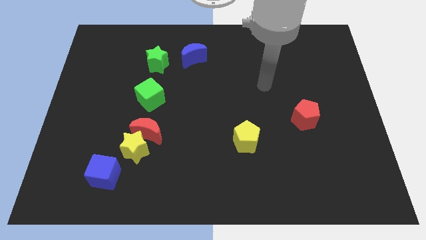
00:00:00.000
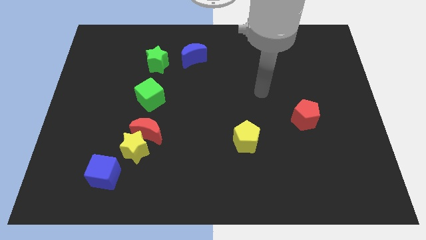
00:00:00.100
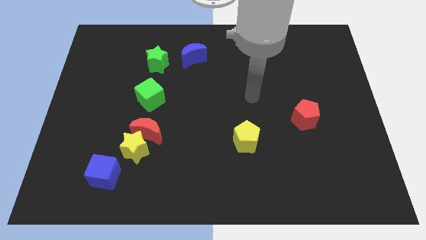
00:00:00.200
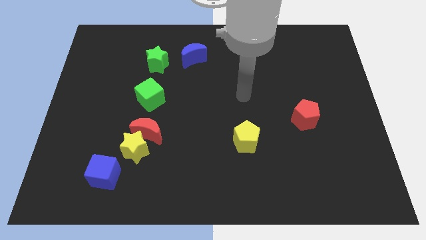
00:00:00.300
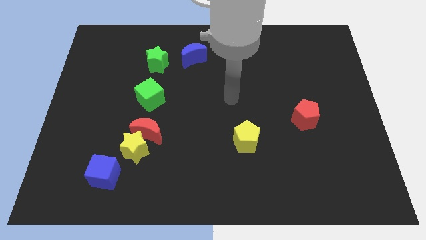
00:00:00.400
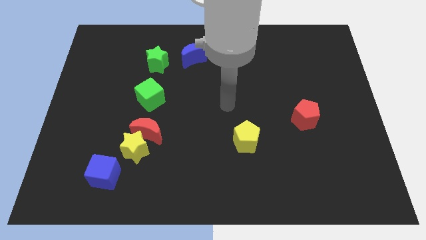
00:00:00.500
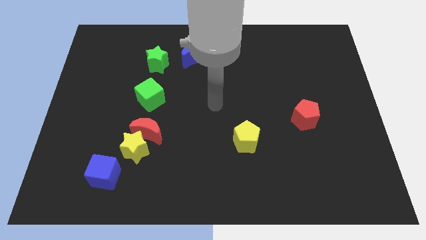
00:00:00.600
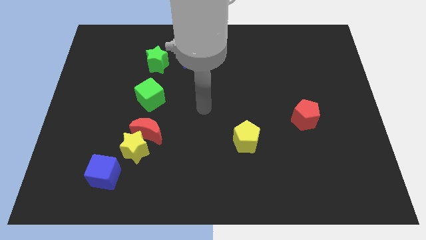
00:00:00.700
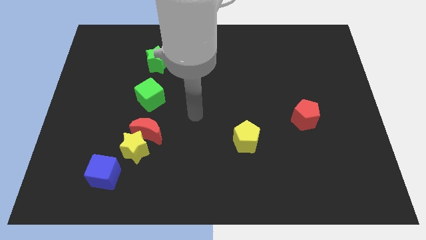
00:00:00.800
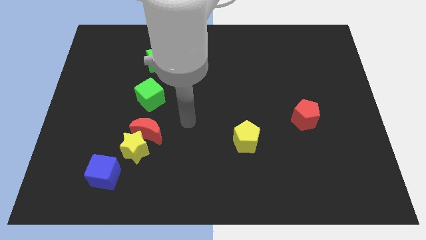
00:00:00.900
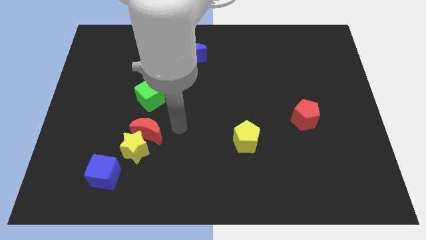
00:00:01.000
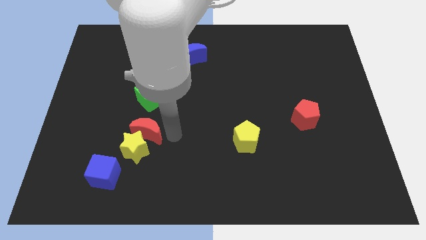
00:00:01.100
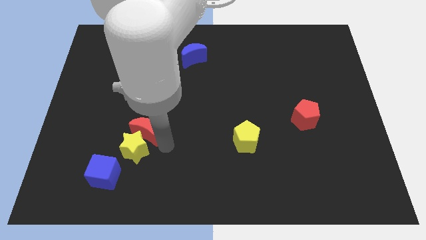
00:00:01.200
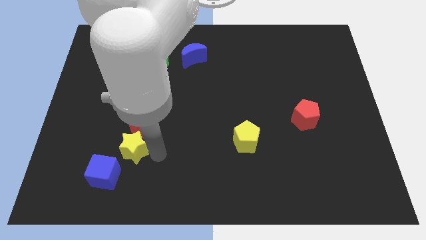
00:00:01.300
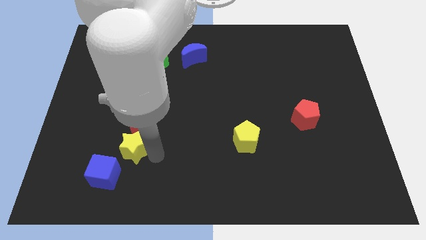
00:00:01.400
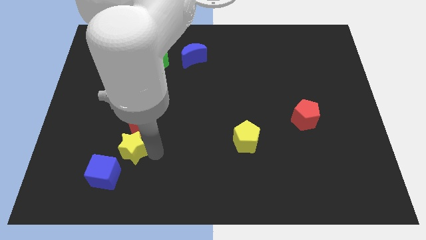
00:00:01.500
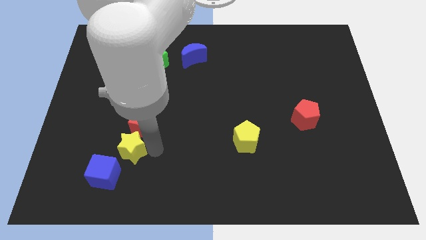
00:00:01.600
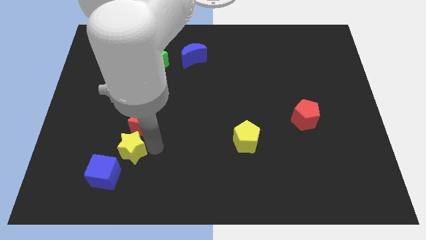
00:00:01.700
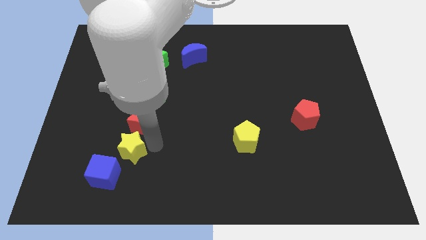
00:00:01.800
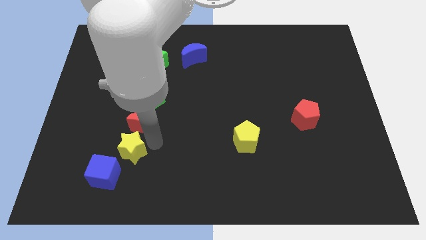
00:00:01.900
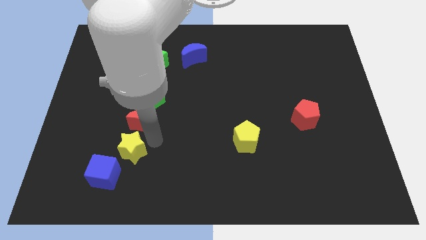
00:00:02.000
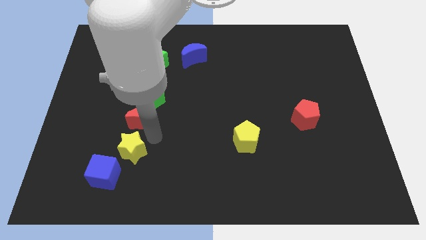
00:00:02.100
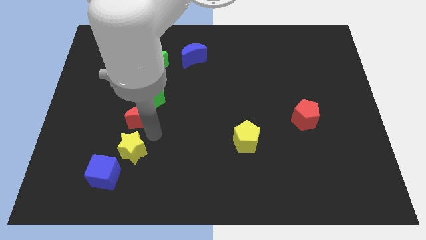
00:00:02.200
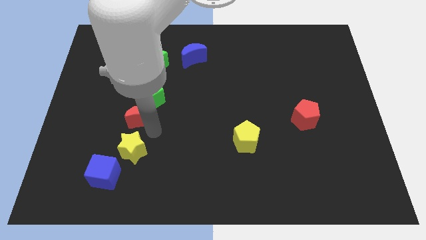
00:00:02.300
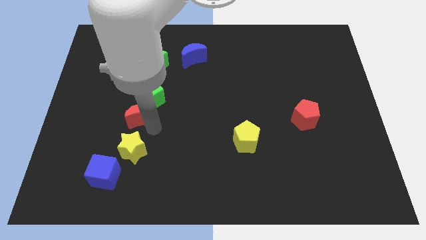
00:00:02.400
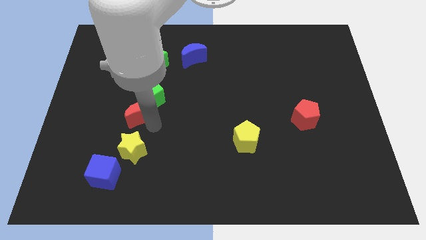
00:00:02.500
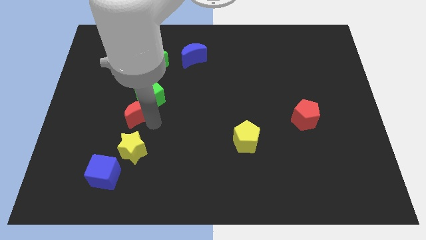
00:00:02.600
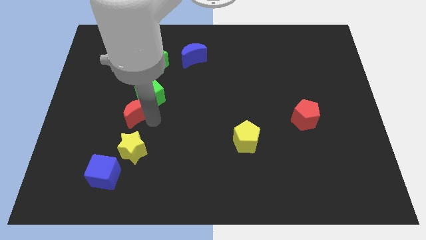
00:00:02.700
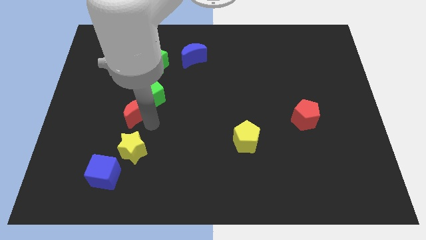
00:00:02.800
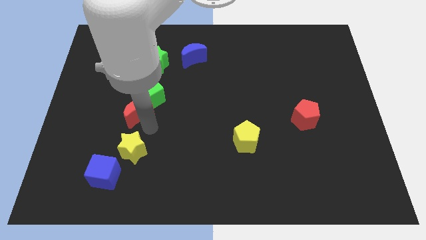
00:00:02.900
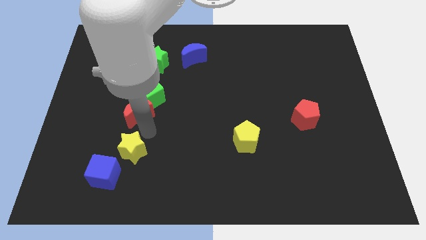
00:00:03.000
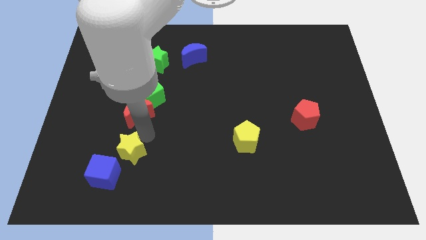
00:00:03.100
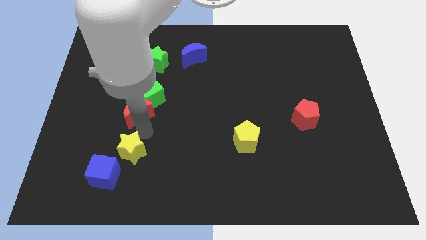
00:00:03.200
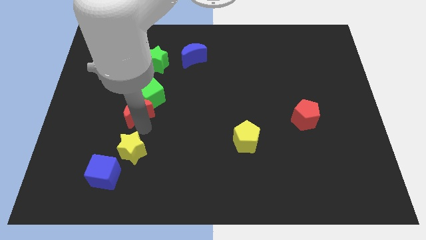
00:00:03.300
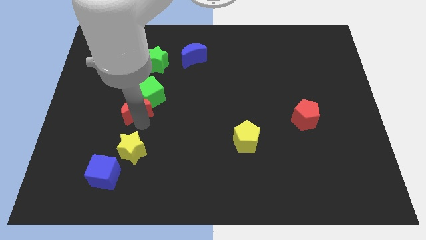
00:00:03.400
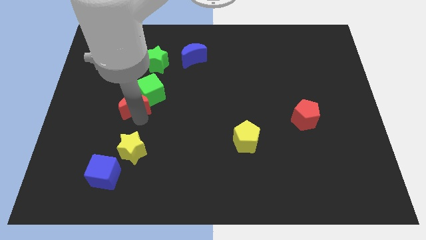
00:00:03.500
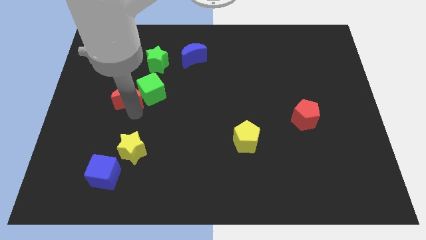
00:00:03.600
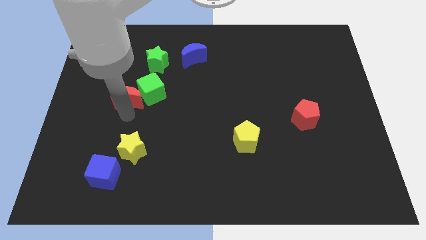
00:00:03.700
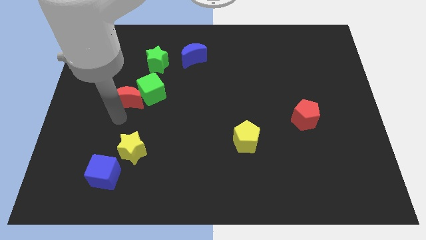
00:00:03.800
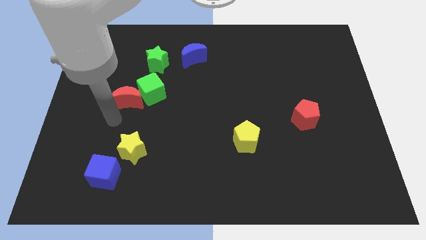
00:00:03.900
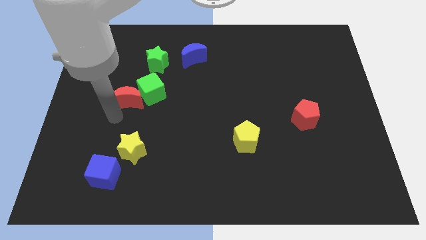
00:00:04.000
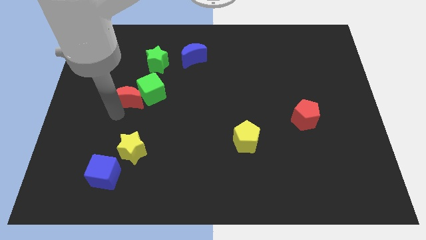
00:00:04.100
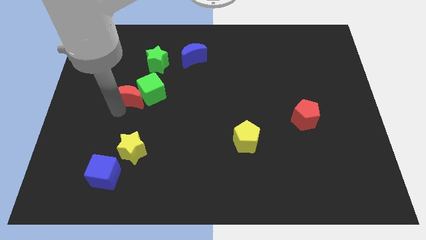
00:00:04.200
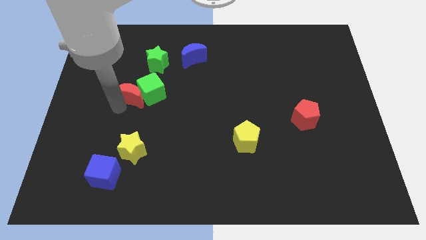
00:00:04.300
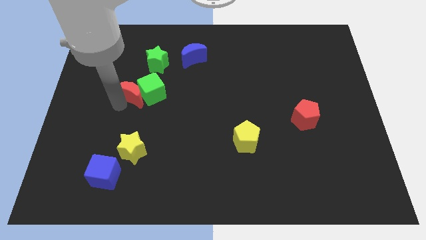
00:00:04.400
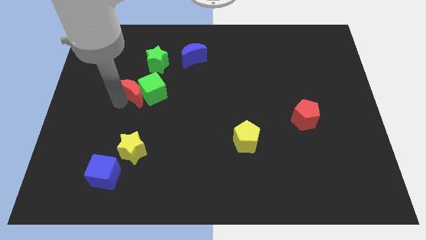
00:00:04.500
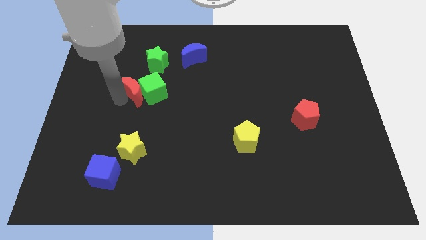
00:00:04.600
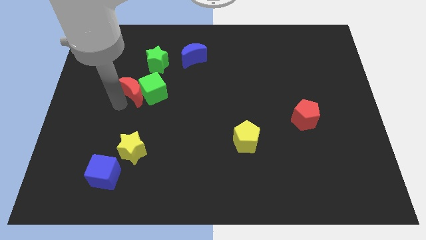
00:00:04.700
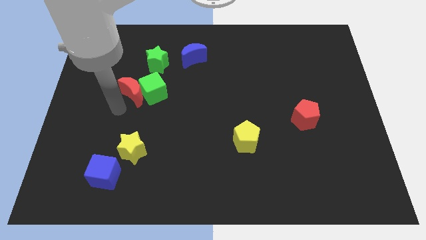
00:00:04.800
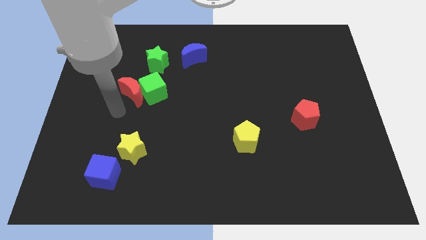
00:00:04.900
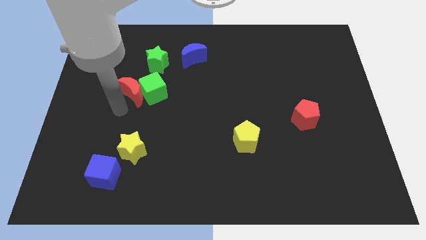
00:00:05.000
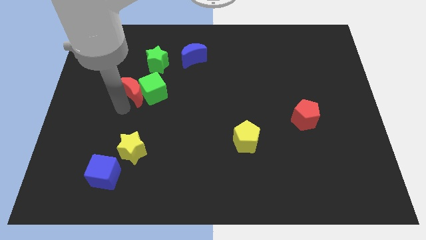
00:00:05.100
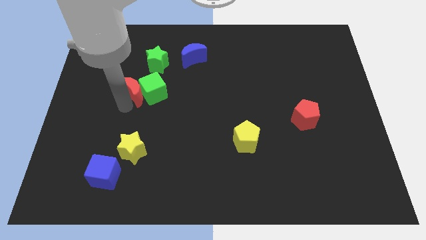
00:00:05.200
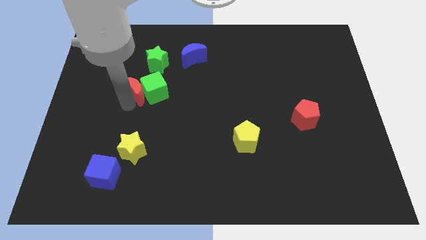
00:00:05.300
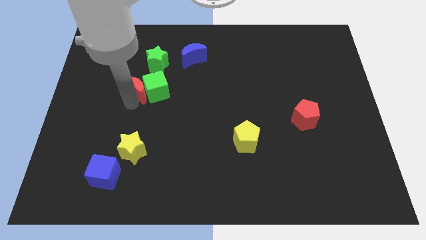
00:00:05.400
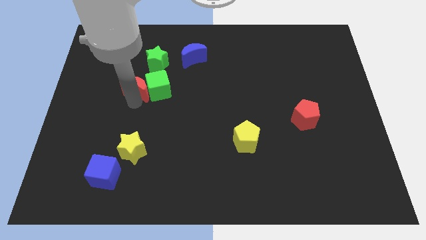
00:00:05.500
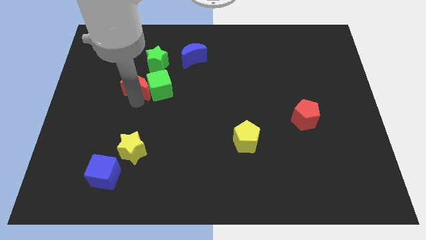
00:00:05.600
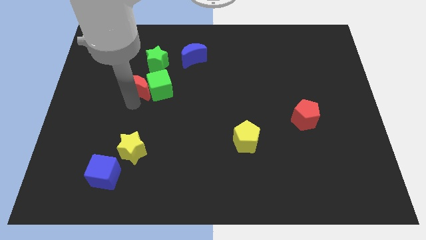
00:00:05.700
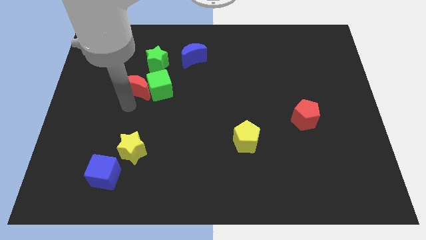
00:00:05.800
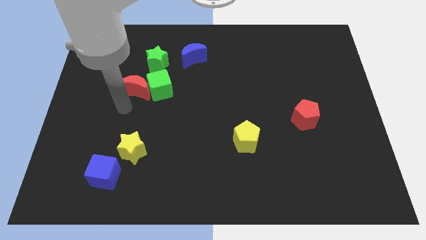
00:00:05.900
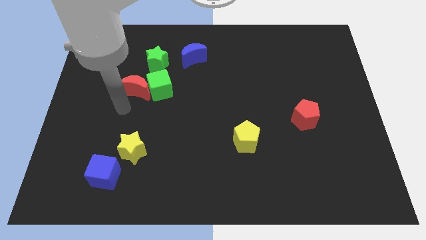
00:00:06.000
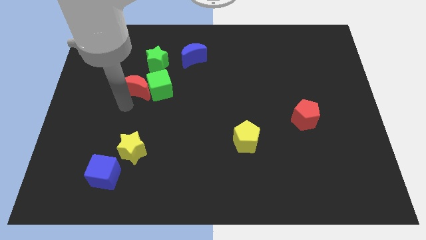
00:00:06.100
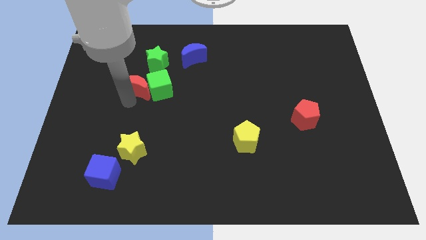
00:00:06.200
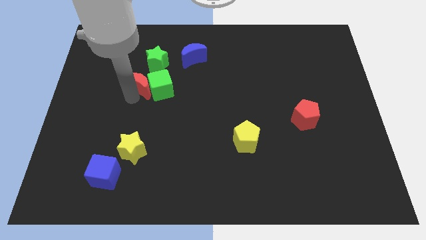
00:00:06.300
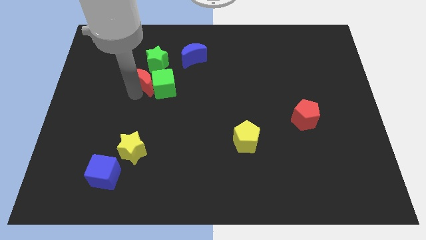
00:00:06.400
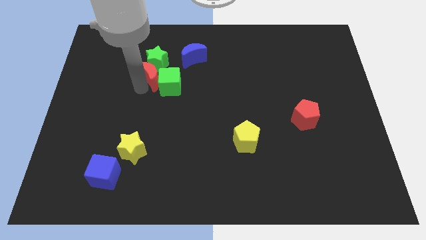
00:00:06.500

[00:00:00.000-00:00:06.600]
slide the red moon to the green star
